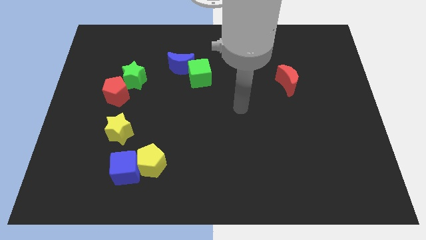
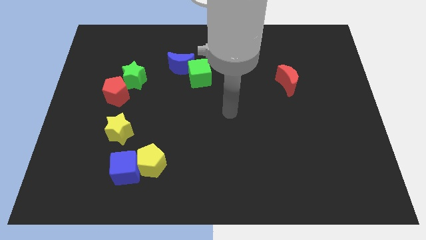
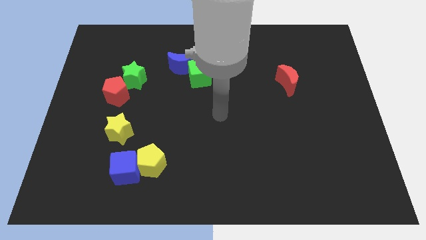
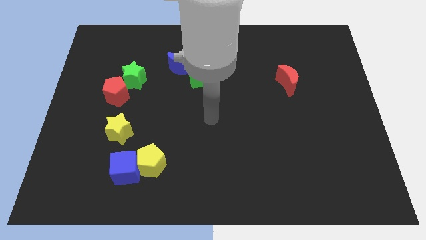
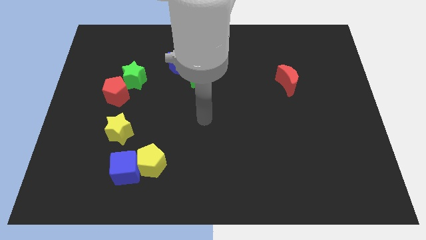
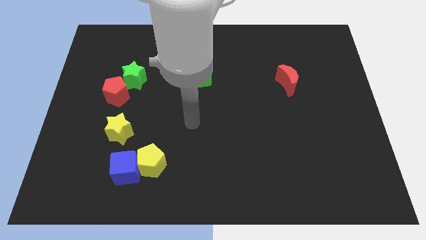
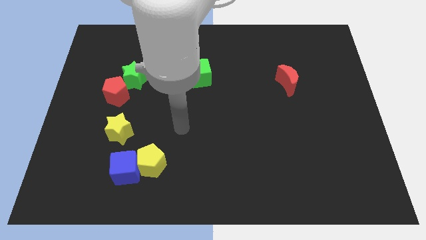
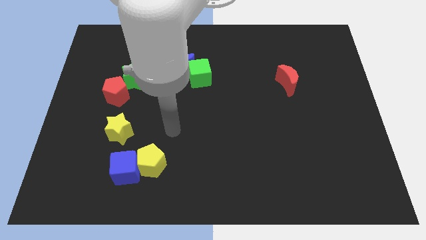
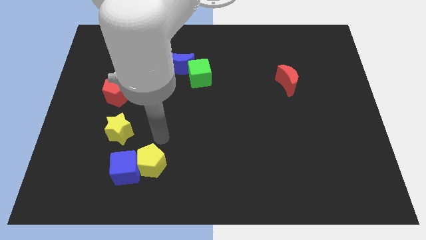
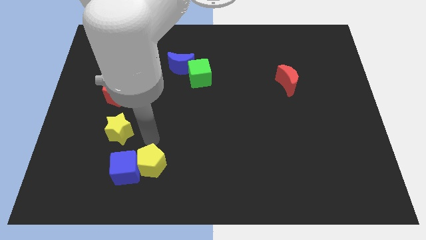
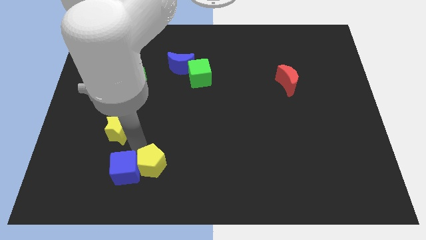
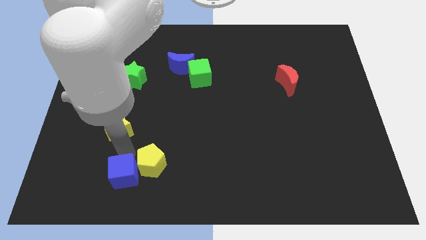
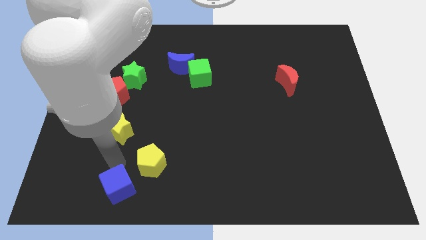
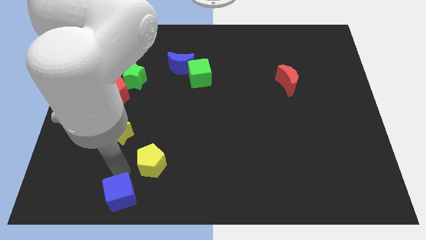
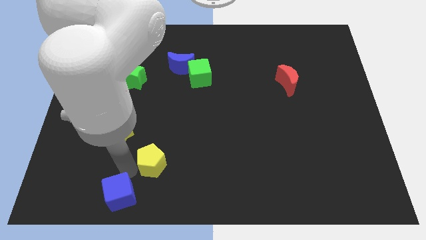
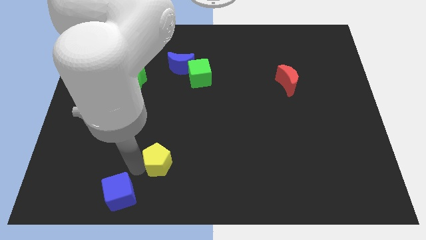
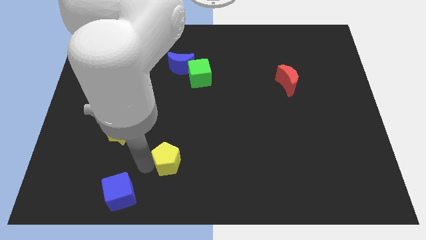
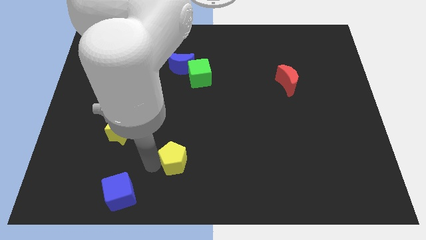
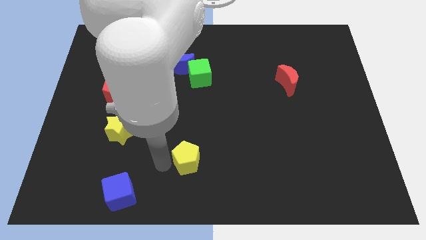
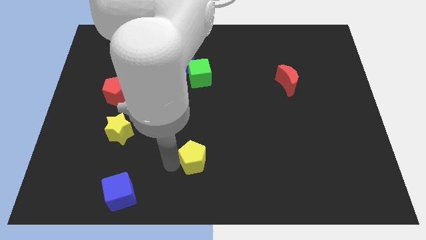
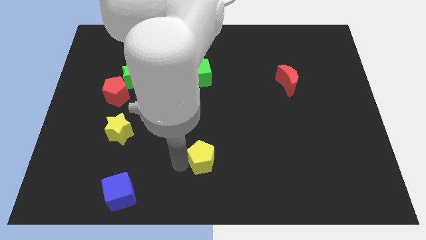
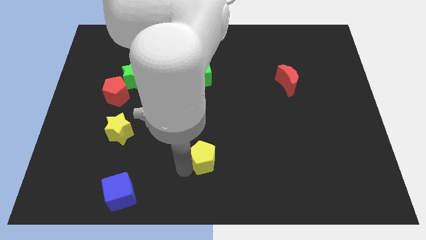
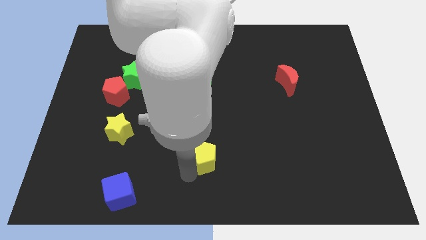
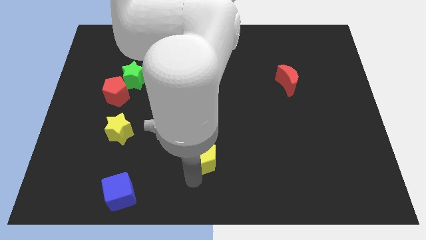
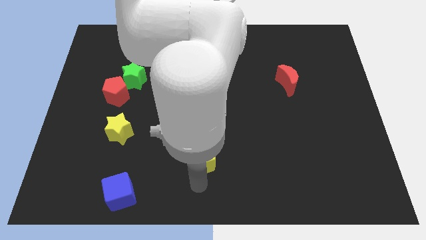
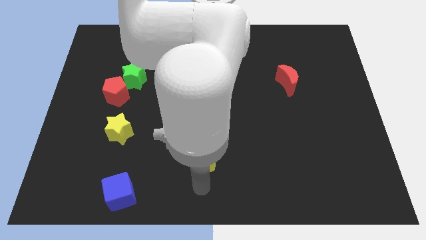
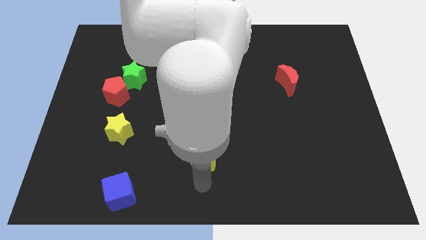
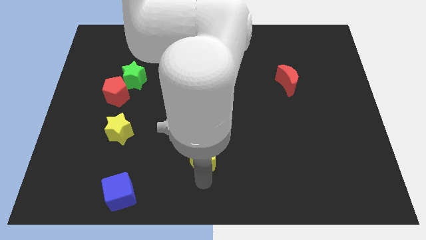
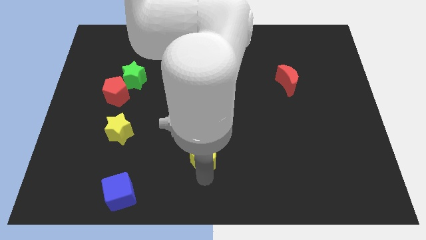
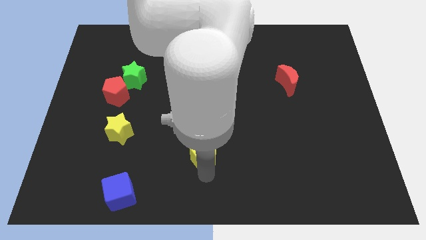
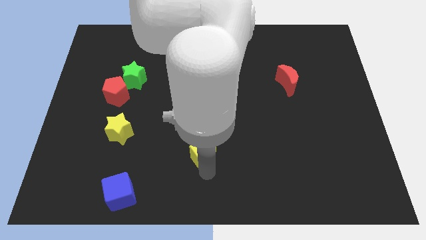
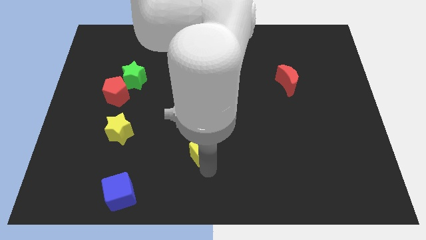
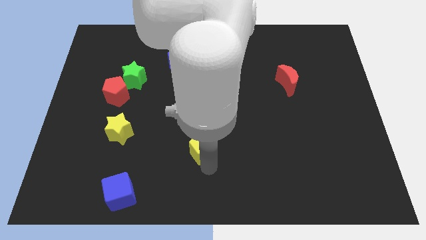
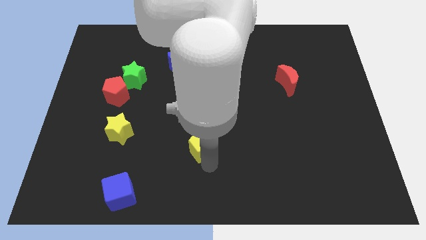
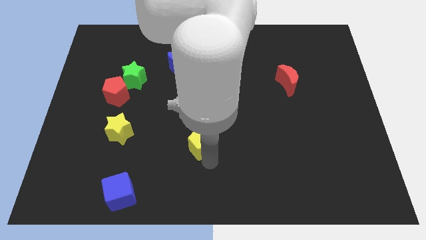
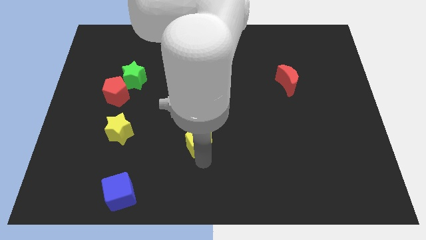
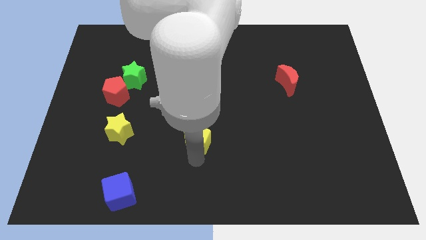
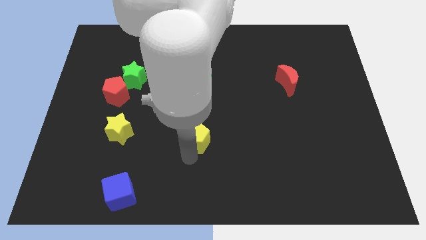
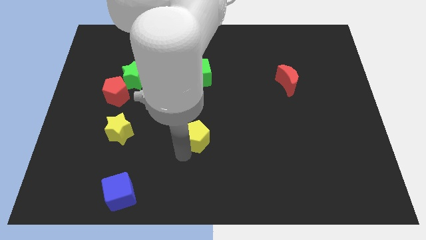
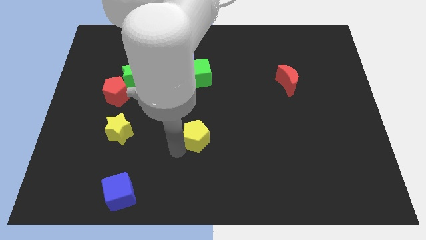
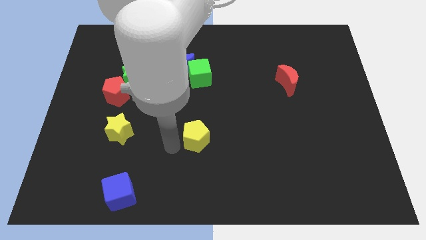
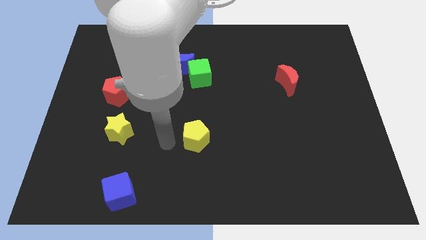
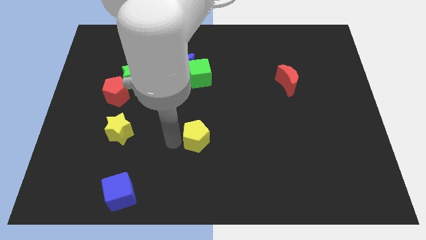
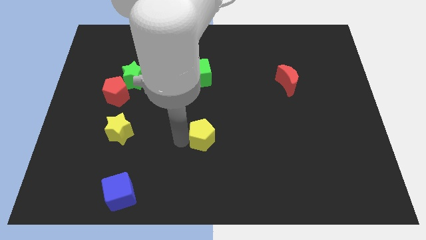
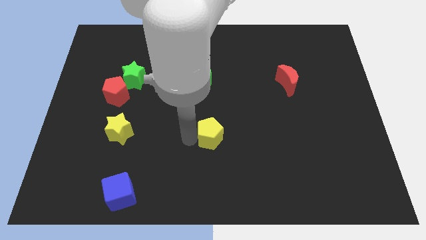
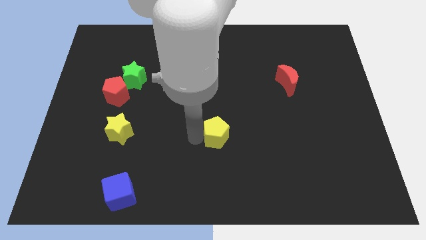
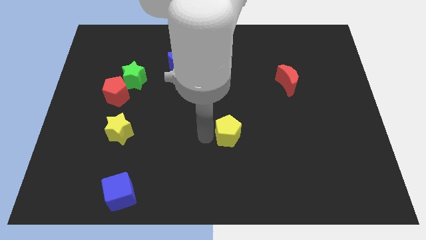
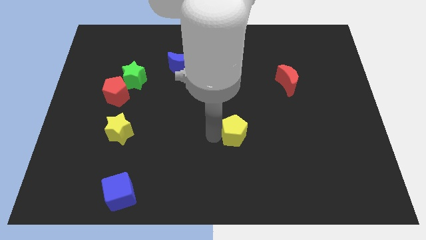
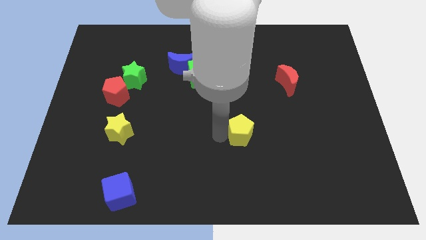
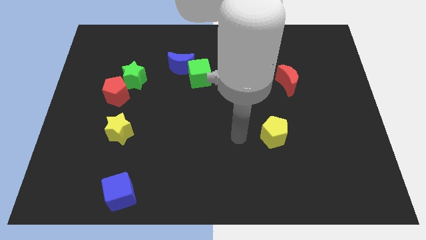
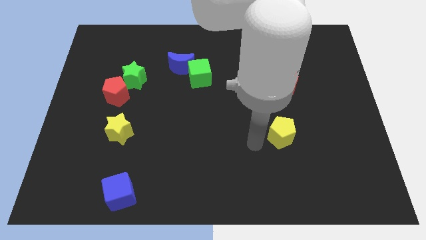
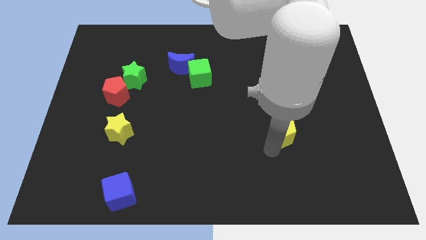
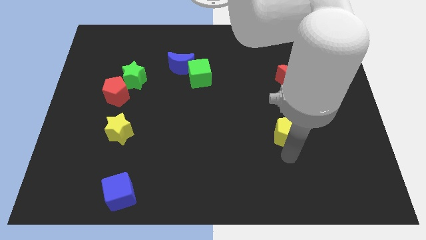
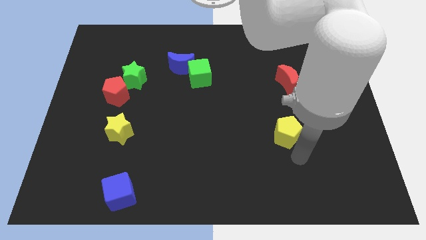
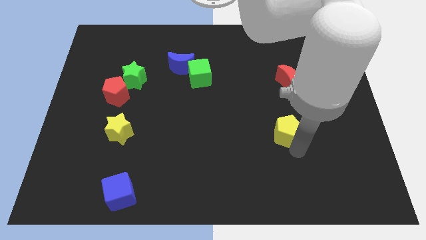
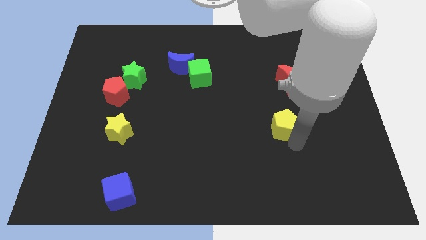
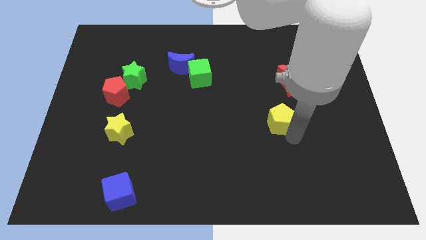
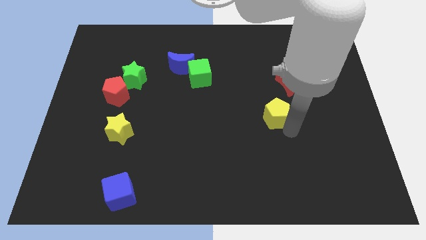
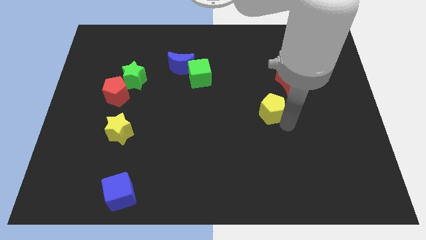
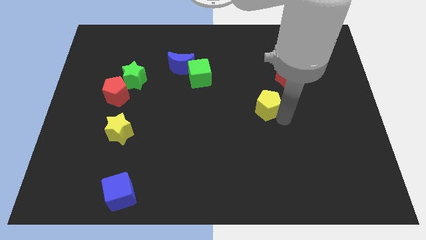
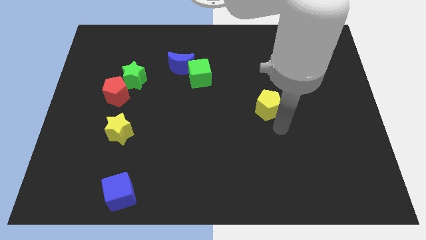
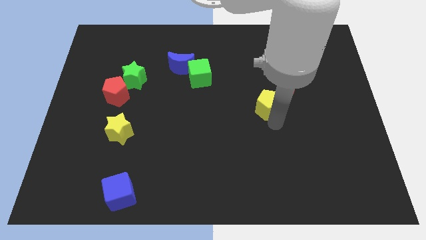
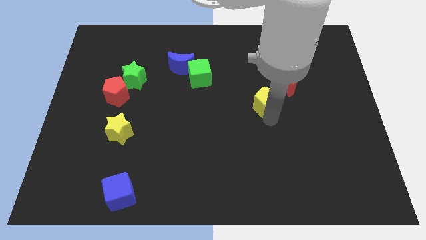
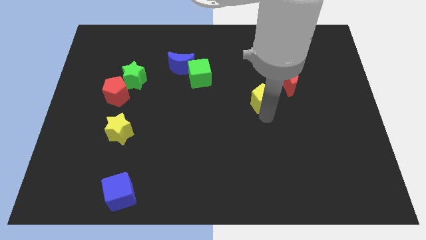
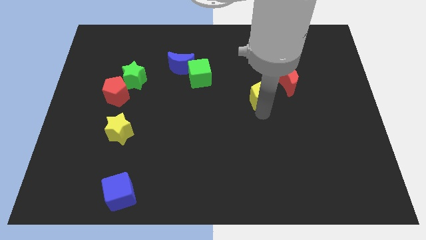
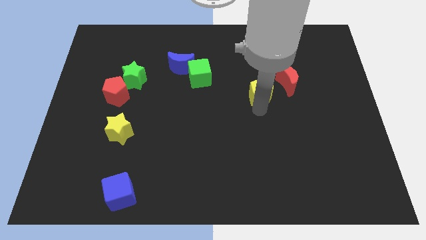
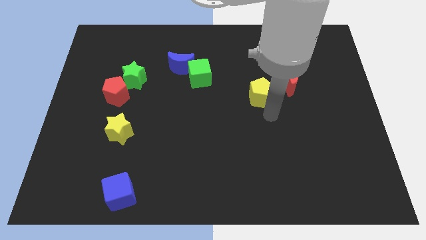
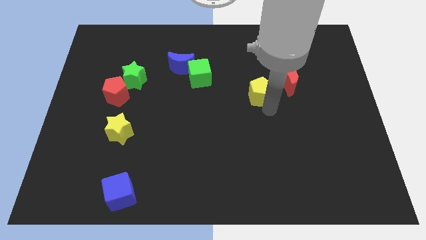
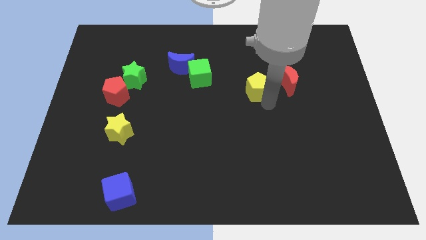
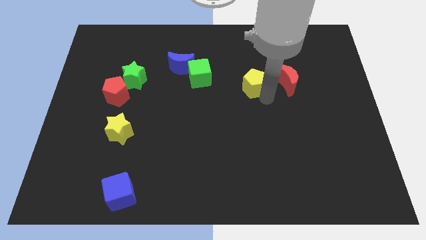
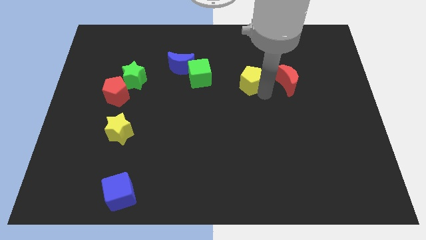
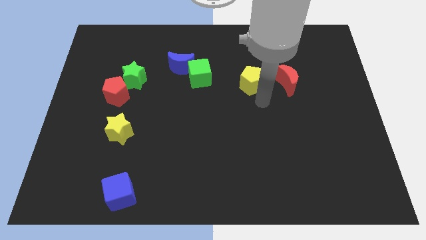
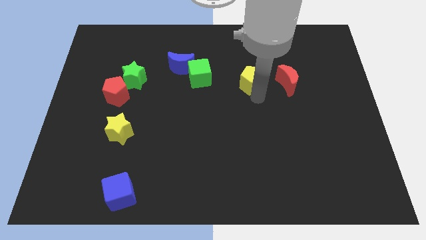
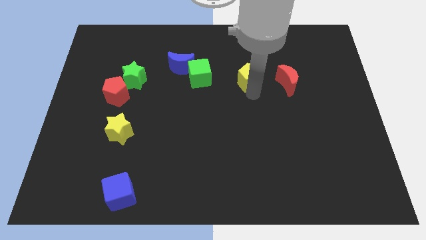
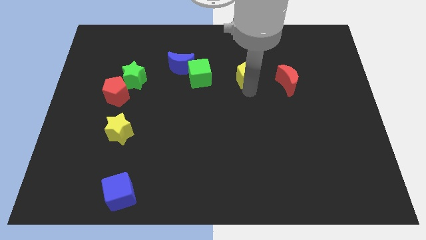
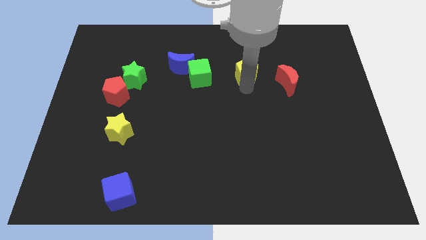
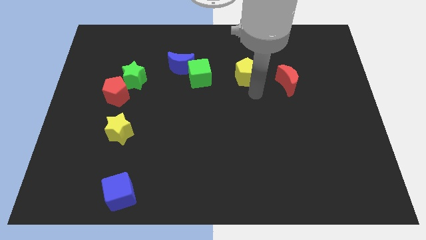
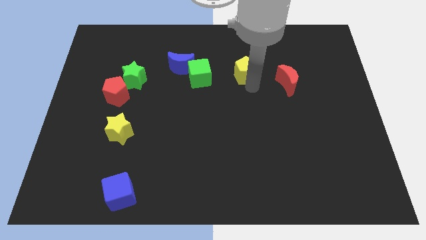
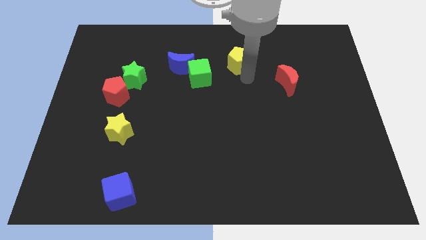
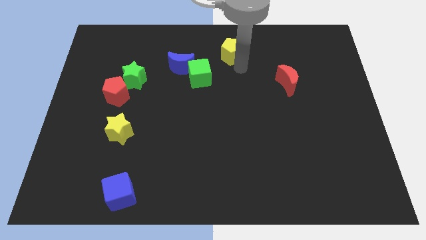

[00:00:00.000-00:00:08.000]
move the yellow pentagon to the towards your base
